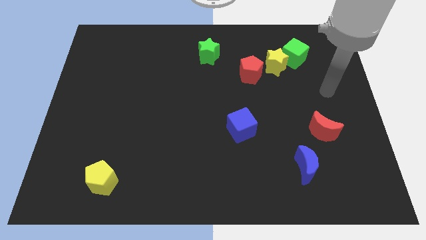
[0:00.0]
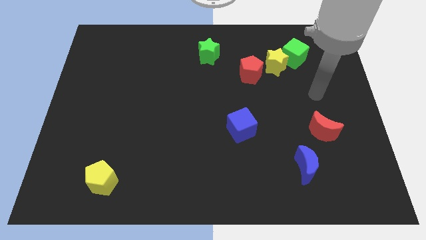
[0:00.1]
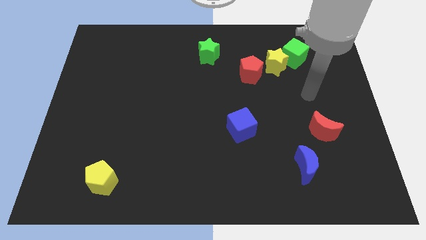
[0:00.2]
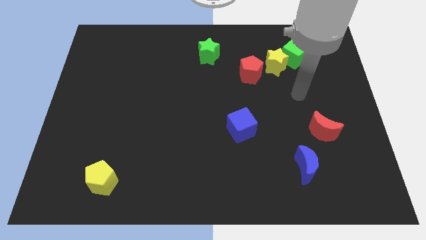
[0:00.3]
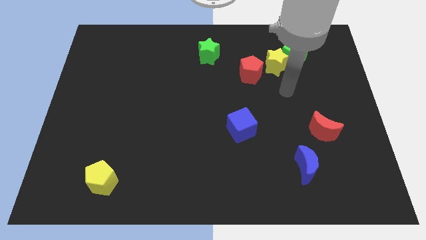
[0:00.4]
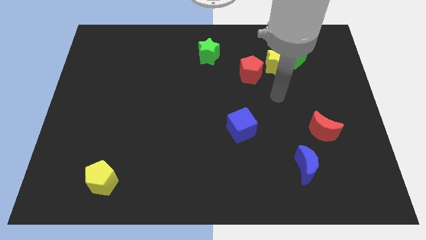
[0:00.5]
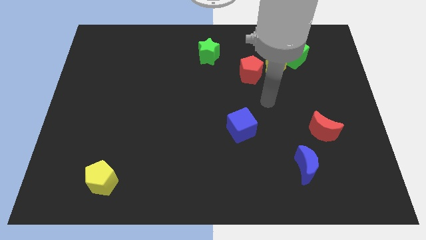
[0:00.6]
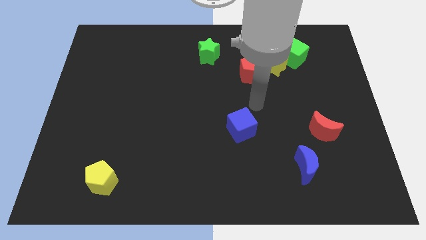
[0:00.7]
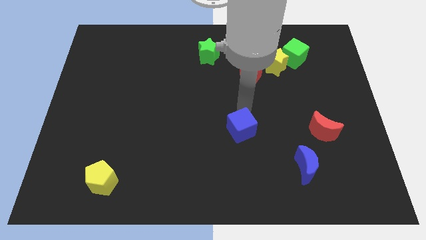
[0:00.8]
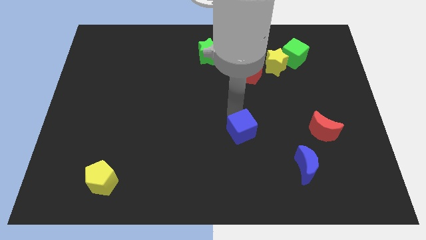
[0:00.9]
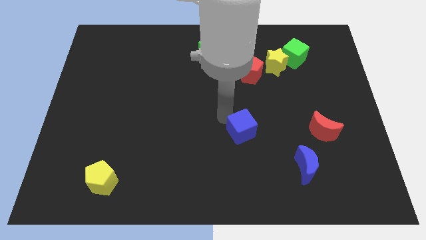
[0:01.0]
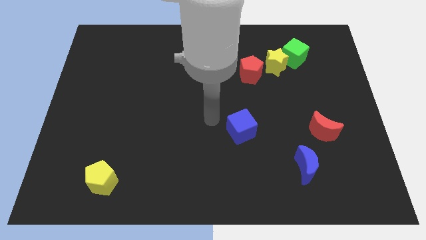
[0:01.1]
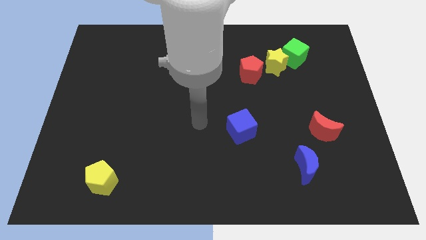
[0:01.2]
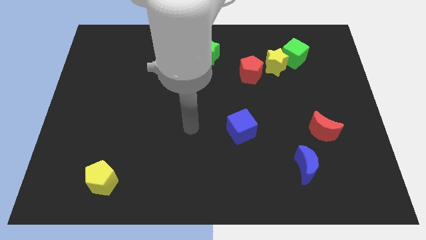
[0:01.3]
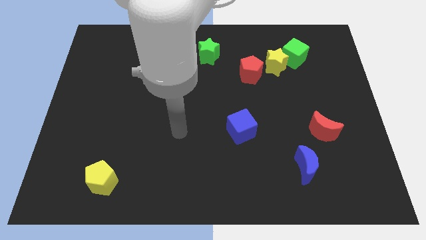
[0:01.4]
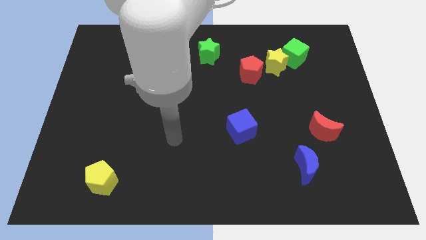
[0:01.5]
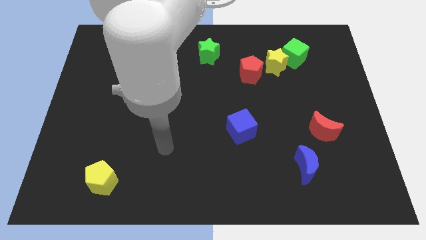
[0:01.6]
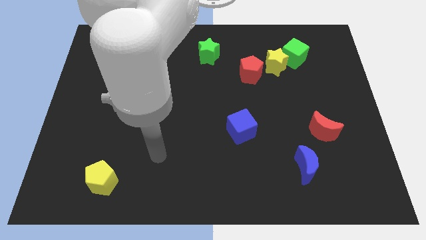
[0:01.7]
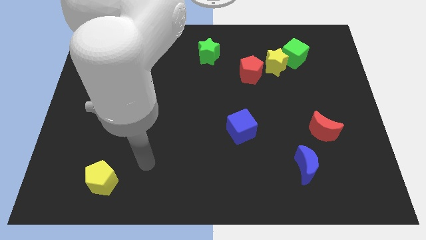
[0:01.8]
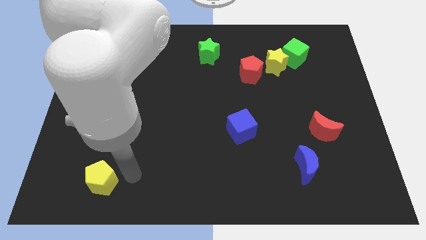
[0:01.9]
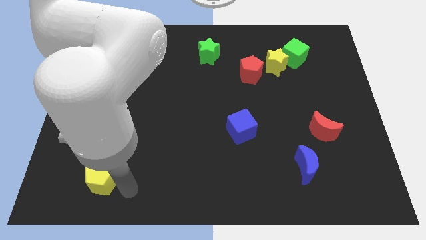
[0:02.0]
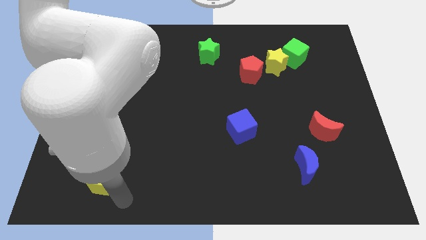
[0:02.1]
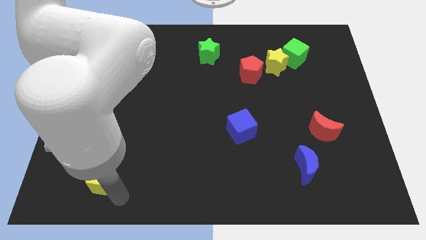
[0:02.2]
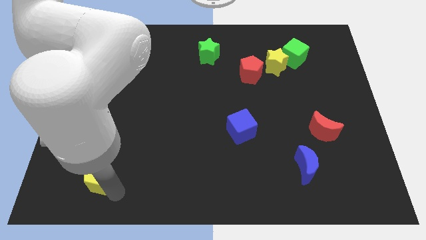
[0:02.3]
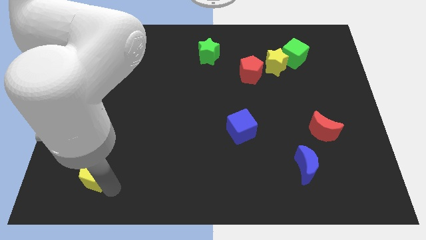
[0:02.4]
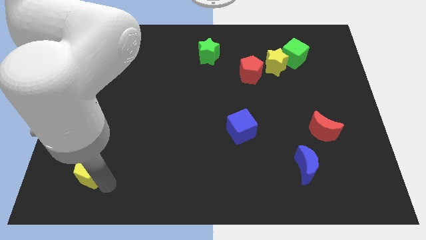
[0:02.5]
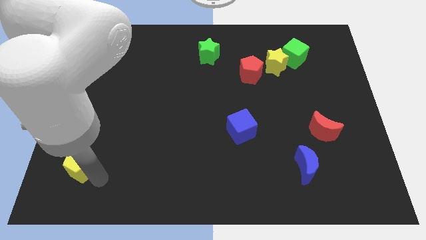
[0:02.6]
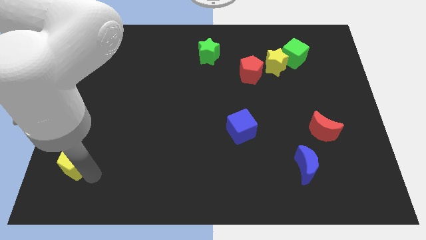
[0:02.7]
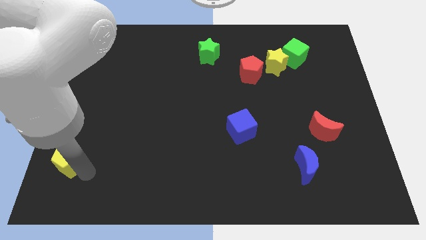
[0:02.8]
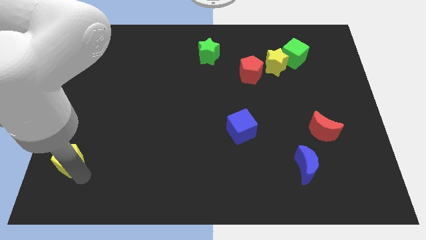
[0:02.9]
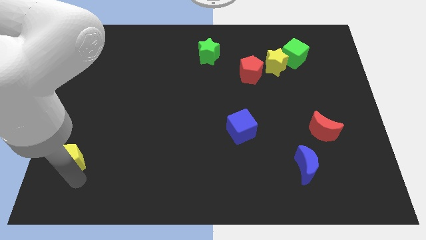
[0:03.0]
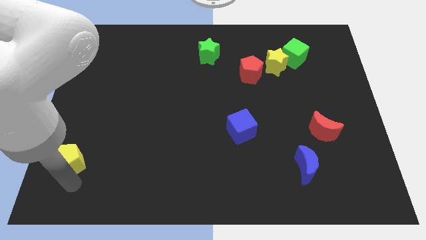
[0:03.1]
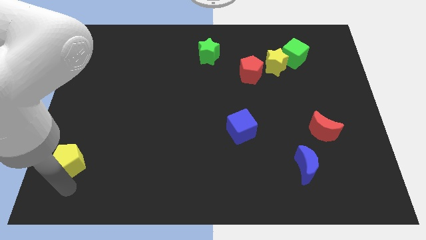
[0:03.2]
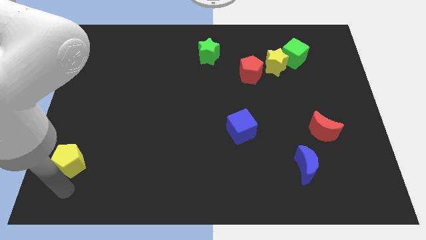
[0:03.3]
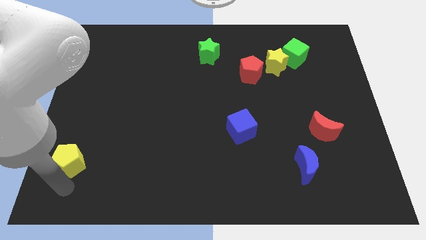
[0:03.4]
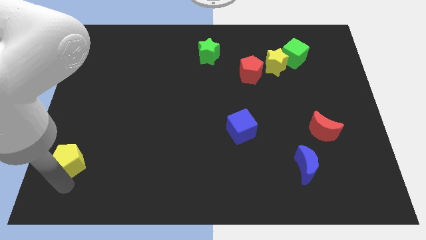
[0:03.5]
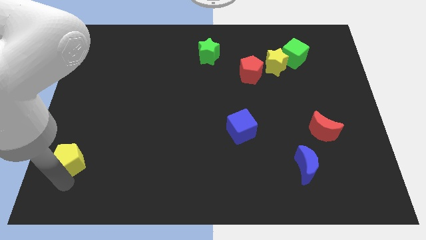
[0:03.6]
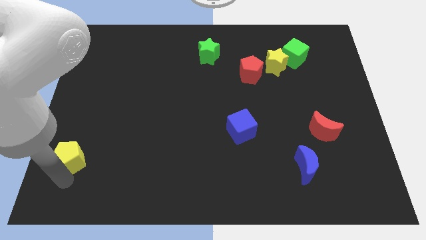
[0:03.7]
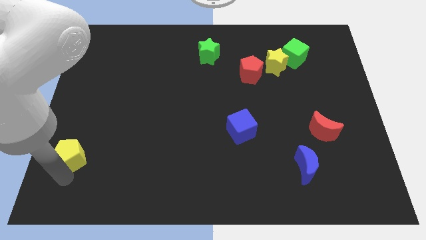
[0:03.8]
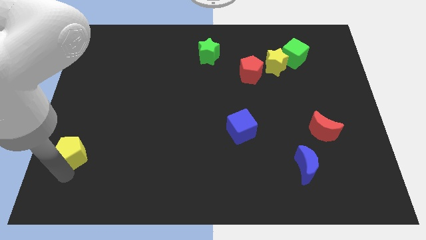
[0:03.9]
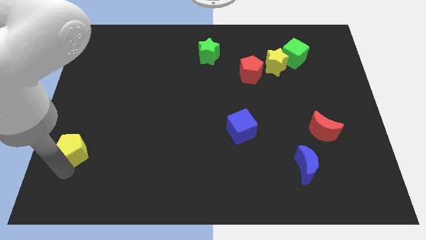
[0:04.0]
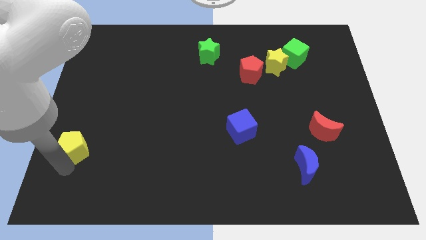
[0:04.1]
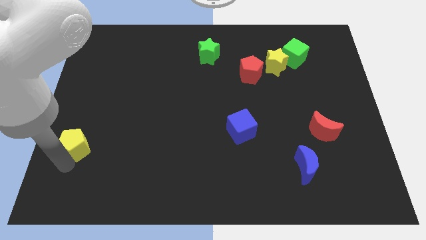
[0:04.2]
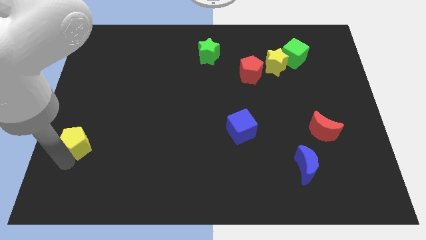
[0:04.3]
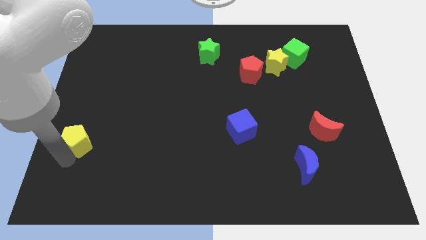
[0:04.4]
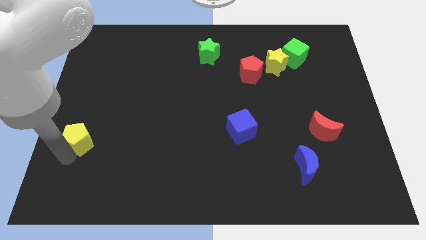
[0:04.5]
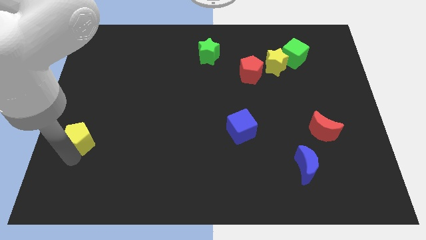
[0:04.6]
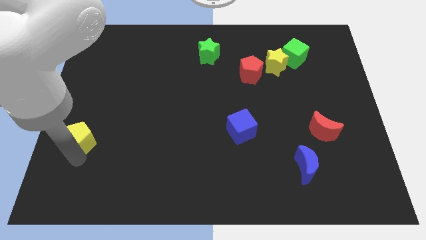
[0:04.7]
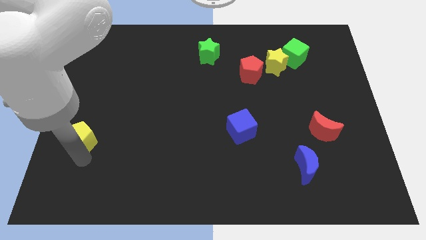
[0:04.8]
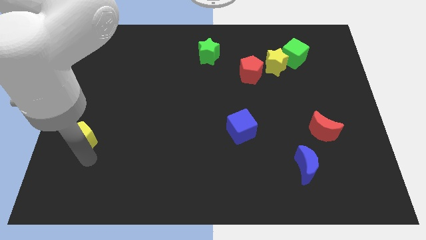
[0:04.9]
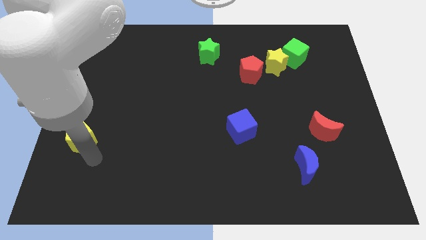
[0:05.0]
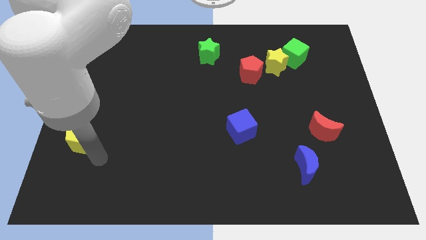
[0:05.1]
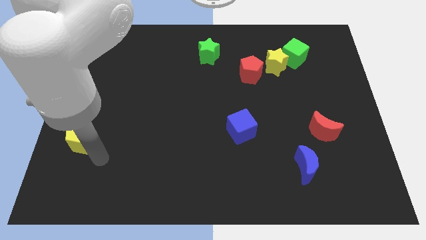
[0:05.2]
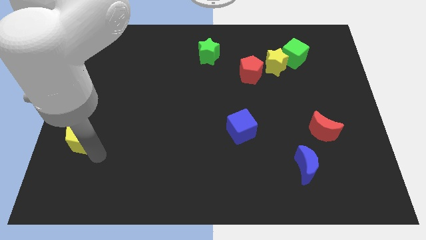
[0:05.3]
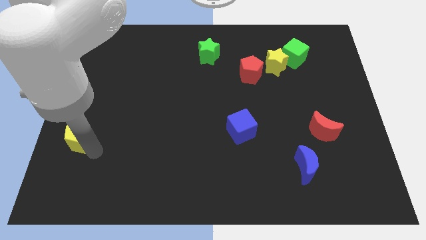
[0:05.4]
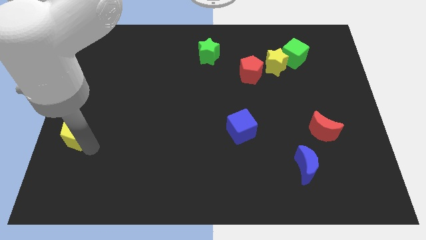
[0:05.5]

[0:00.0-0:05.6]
move the yellow pentagon to the left side of the board
